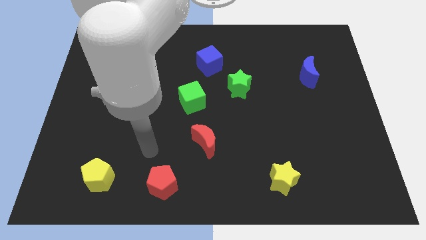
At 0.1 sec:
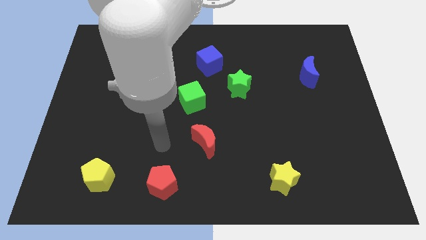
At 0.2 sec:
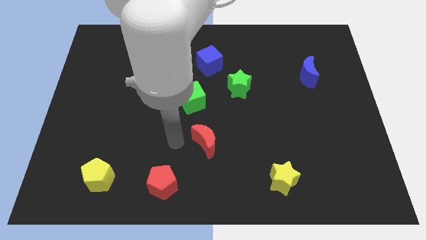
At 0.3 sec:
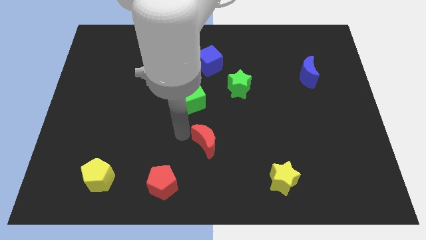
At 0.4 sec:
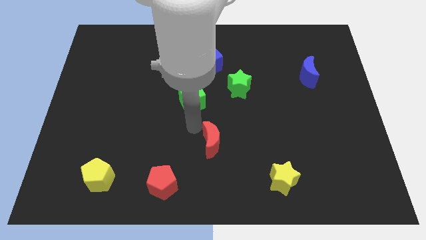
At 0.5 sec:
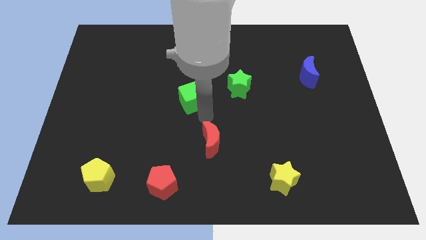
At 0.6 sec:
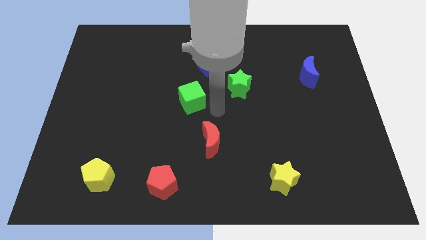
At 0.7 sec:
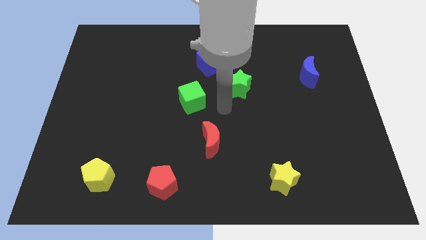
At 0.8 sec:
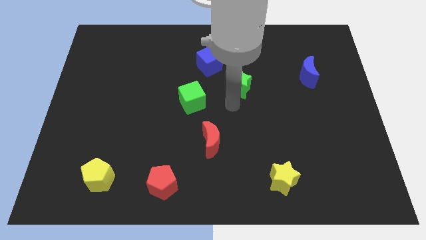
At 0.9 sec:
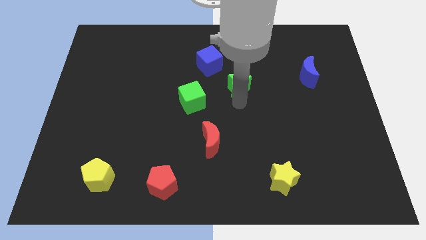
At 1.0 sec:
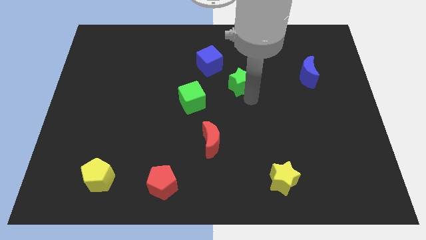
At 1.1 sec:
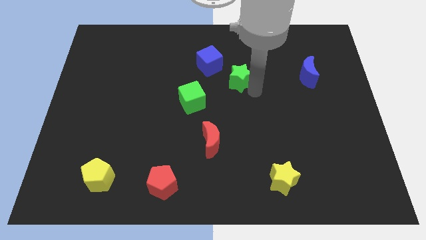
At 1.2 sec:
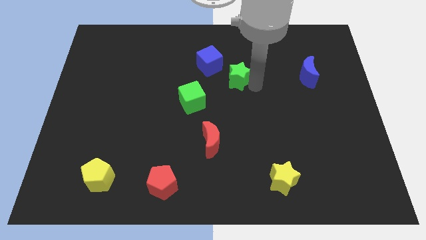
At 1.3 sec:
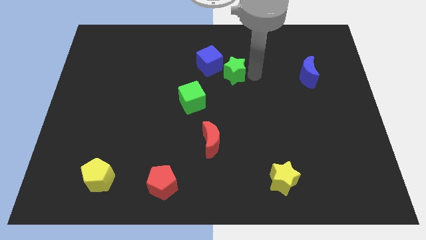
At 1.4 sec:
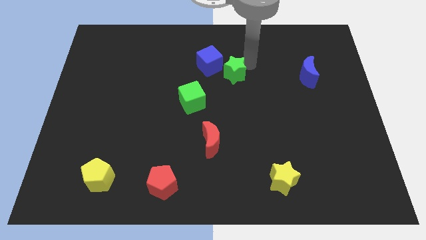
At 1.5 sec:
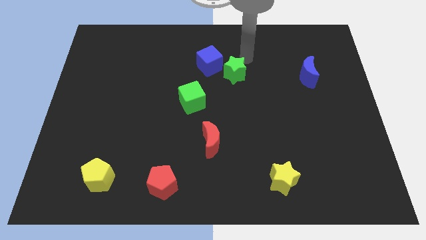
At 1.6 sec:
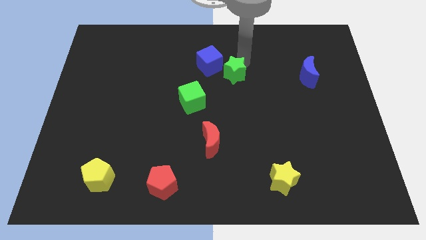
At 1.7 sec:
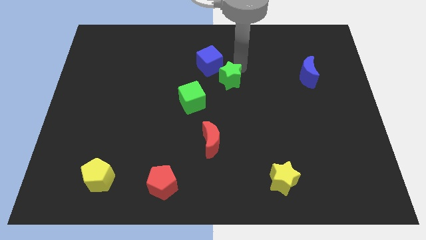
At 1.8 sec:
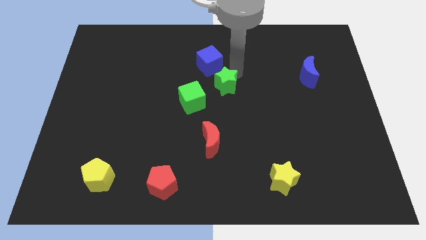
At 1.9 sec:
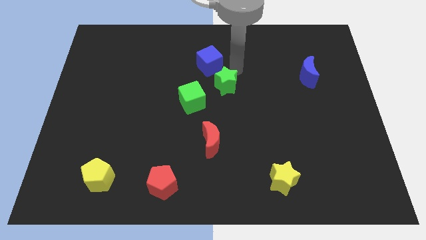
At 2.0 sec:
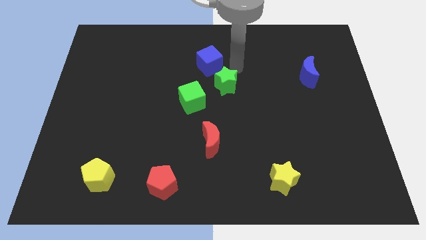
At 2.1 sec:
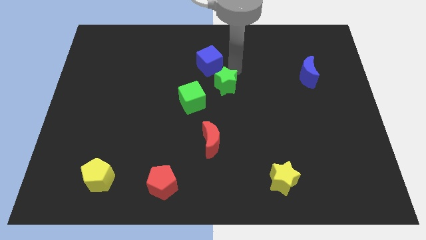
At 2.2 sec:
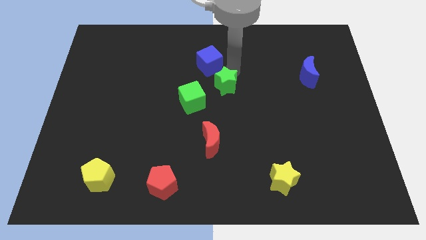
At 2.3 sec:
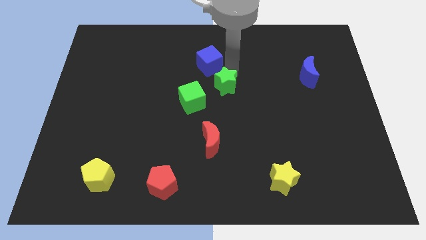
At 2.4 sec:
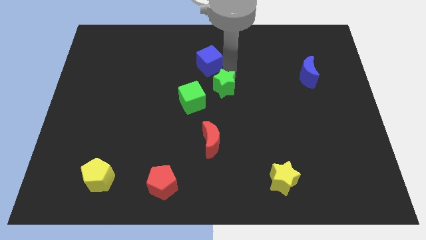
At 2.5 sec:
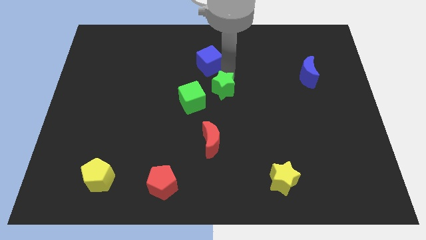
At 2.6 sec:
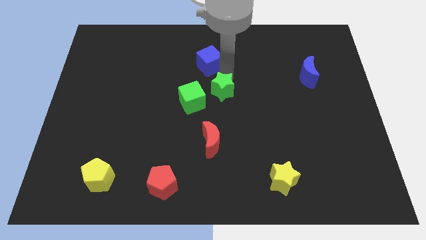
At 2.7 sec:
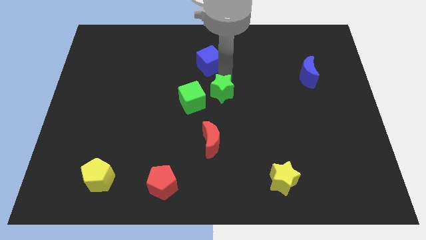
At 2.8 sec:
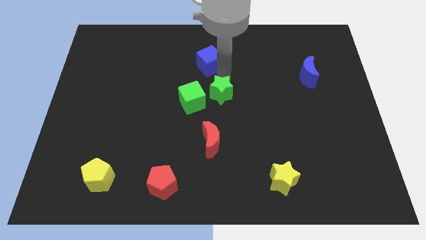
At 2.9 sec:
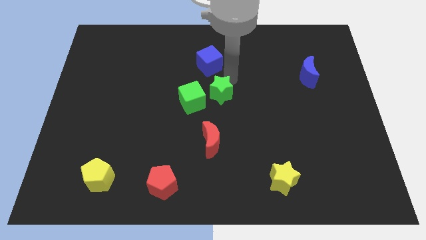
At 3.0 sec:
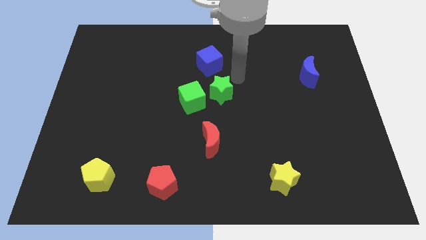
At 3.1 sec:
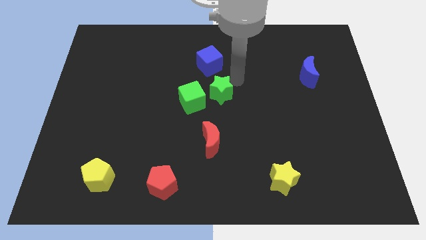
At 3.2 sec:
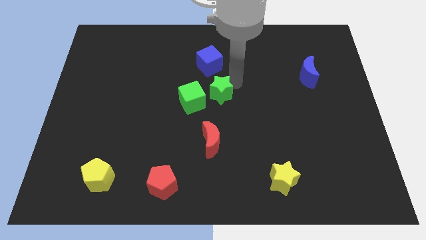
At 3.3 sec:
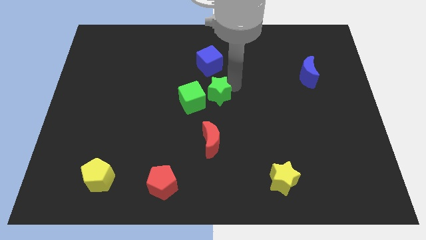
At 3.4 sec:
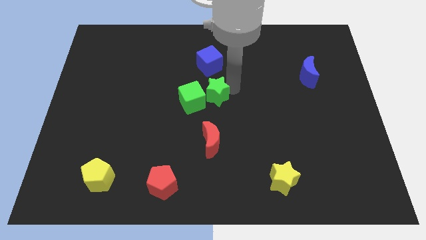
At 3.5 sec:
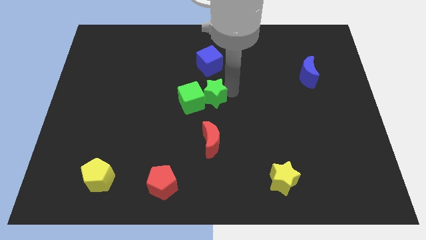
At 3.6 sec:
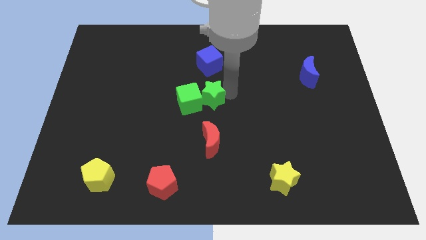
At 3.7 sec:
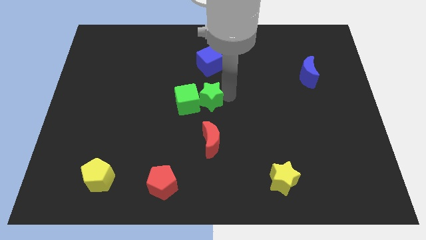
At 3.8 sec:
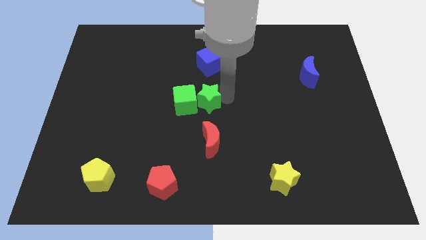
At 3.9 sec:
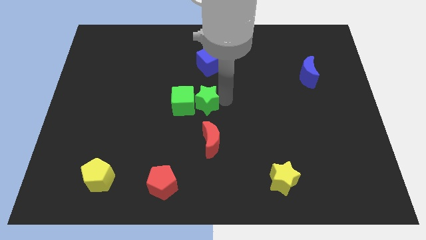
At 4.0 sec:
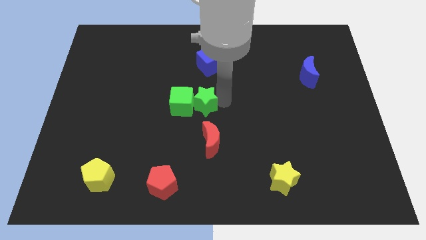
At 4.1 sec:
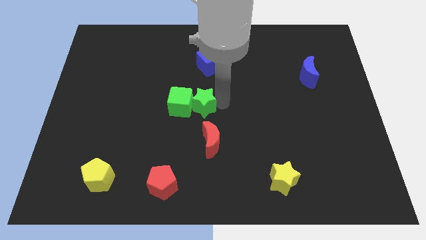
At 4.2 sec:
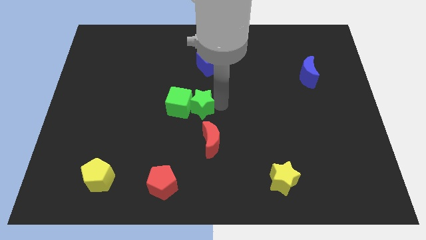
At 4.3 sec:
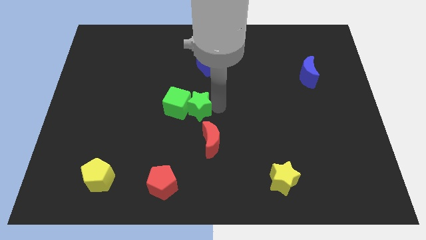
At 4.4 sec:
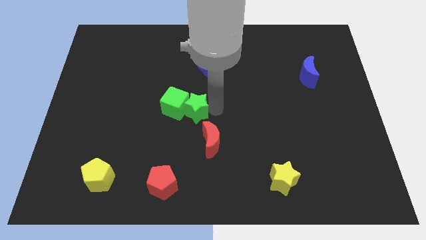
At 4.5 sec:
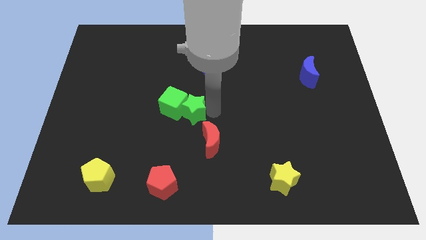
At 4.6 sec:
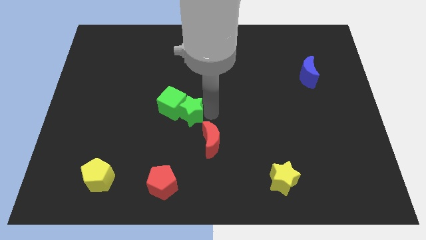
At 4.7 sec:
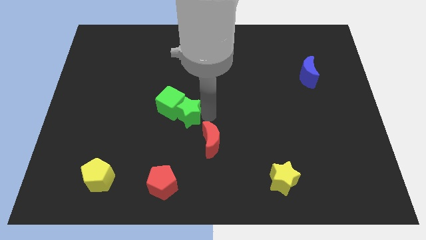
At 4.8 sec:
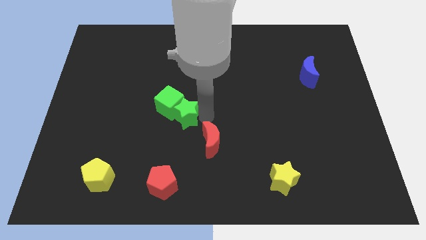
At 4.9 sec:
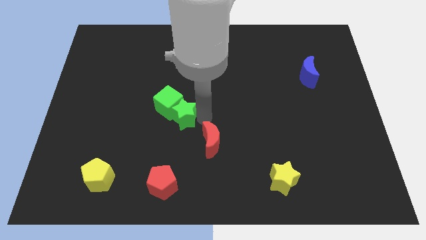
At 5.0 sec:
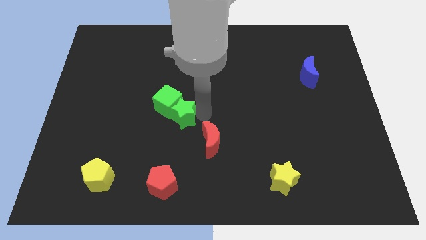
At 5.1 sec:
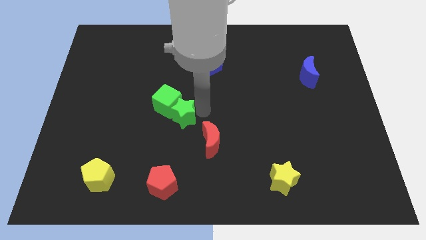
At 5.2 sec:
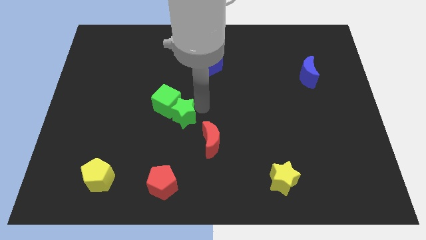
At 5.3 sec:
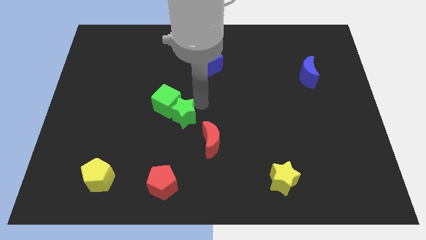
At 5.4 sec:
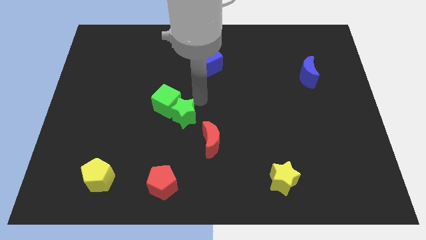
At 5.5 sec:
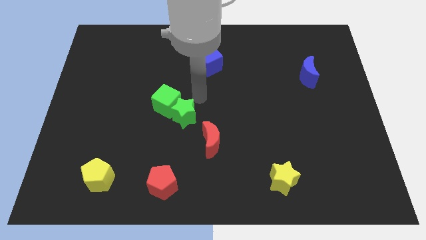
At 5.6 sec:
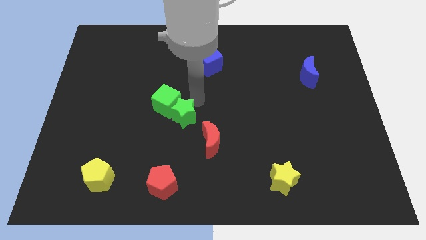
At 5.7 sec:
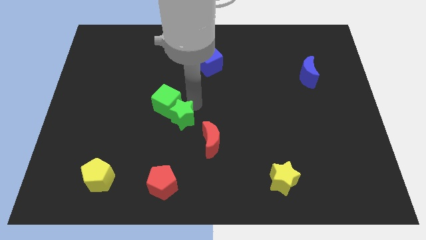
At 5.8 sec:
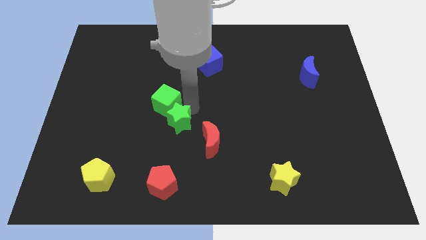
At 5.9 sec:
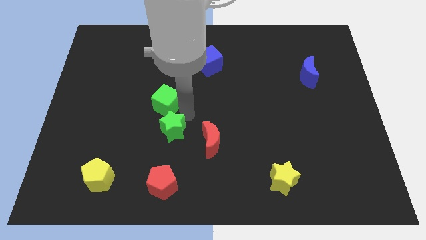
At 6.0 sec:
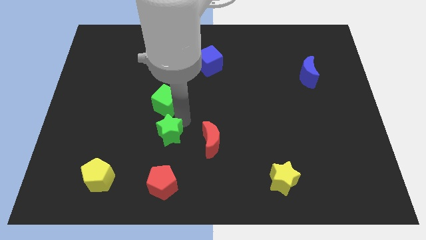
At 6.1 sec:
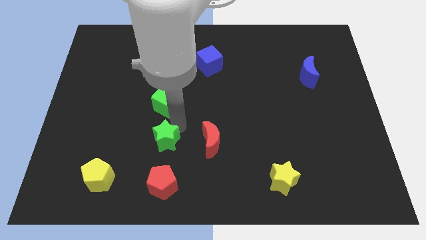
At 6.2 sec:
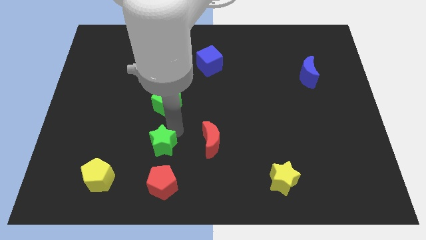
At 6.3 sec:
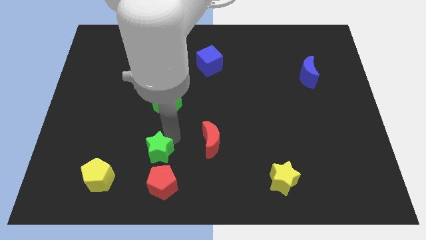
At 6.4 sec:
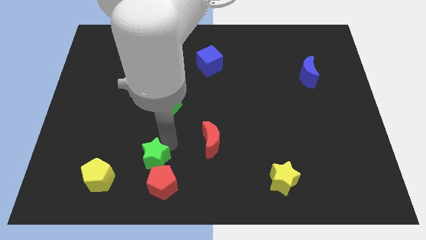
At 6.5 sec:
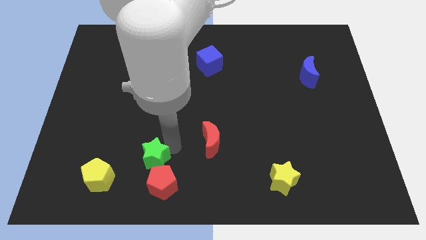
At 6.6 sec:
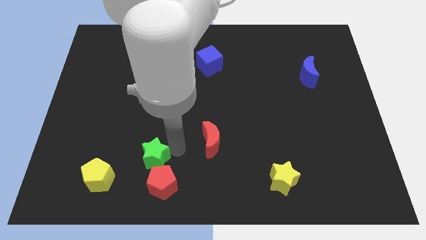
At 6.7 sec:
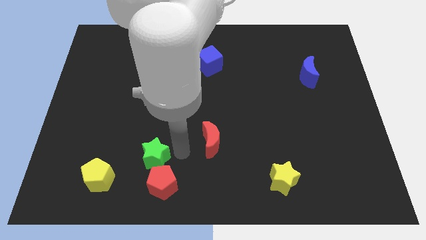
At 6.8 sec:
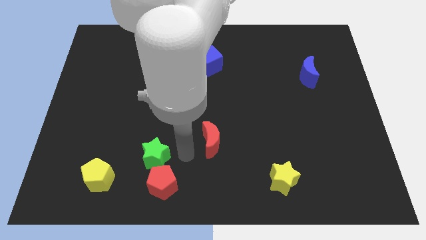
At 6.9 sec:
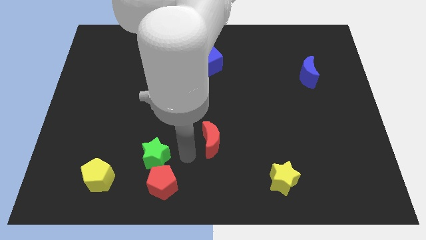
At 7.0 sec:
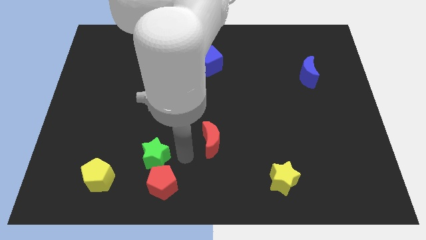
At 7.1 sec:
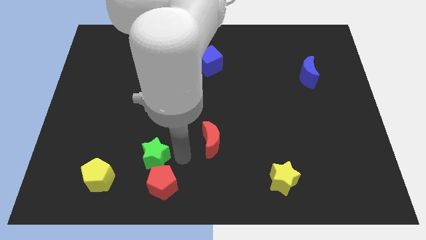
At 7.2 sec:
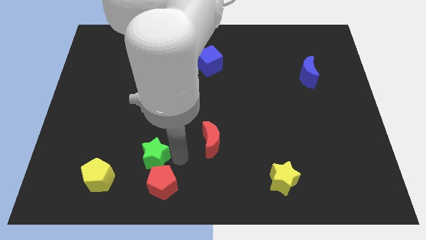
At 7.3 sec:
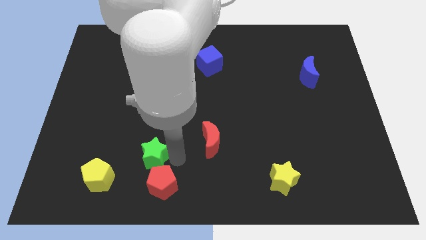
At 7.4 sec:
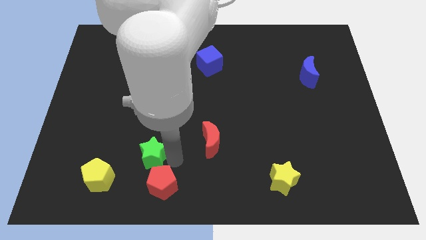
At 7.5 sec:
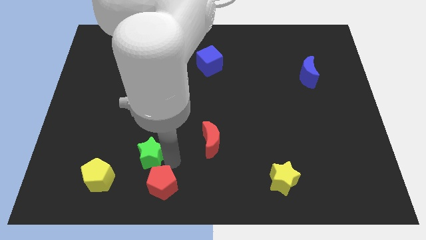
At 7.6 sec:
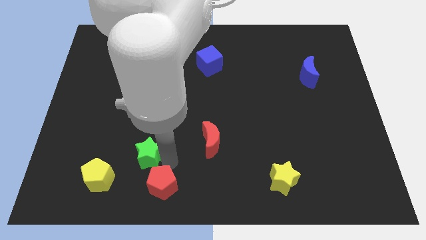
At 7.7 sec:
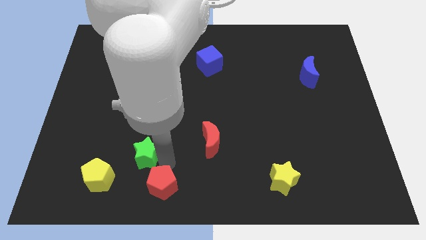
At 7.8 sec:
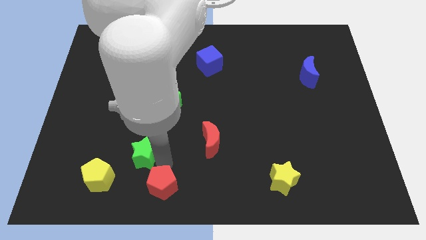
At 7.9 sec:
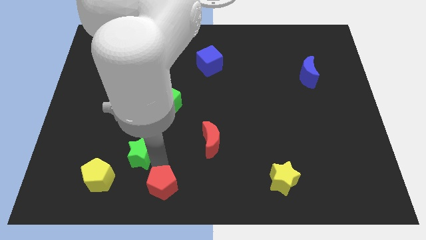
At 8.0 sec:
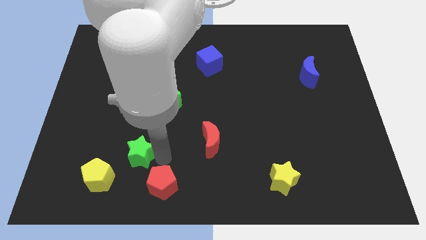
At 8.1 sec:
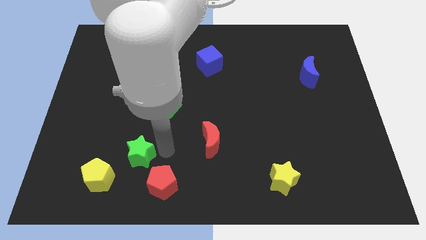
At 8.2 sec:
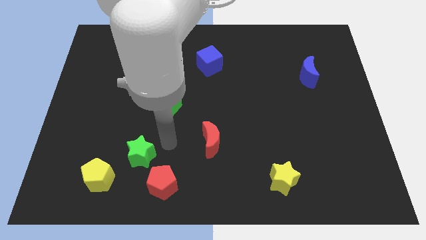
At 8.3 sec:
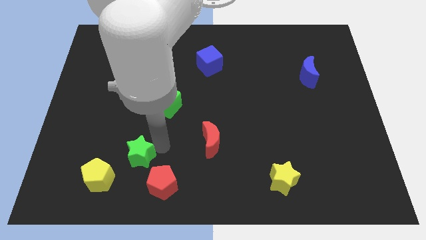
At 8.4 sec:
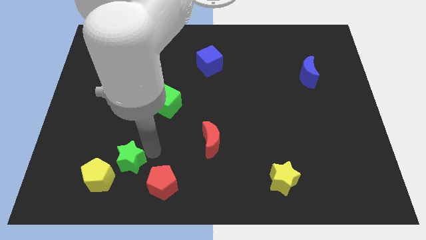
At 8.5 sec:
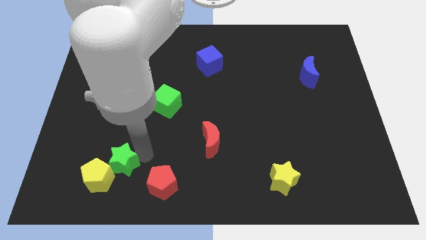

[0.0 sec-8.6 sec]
push the green star to the yellow pentagon
